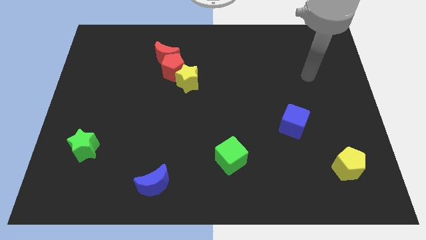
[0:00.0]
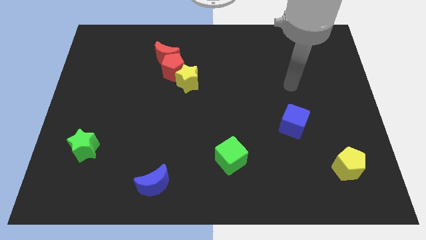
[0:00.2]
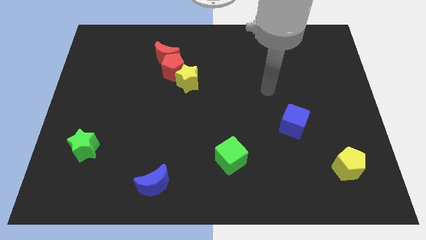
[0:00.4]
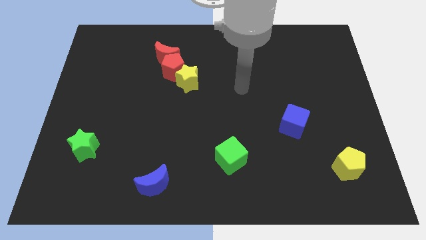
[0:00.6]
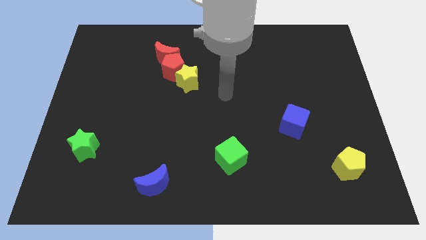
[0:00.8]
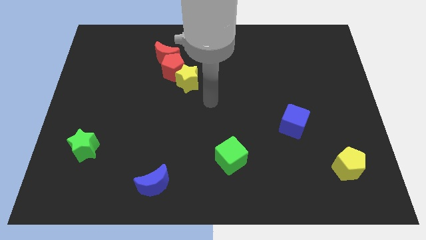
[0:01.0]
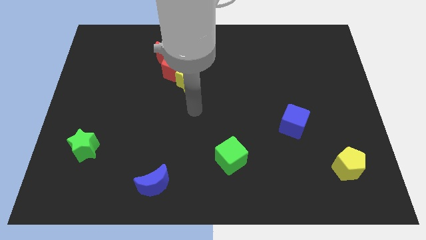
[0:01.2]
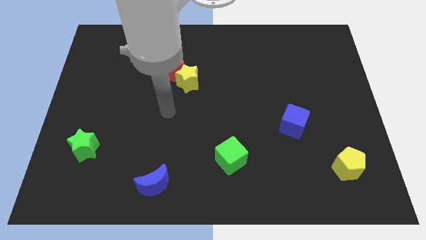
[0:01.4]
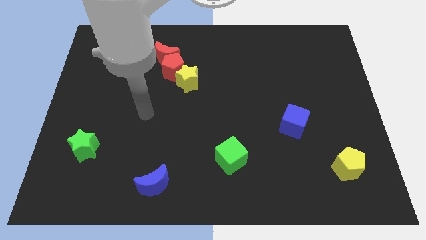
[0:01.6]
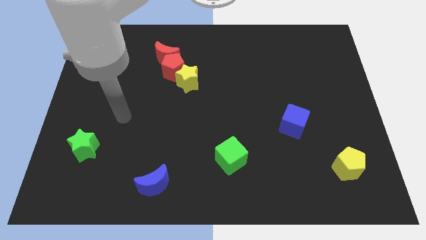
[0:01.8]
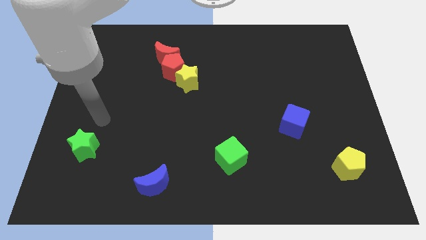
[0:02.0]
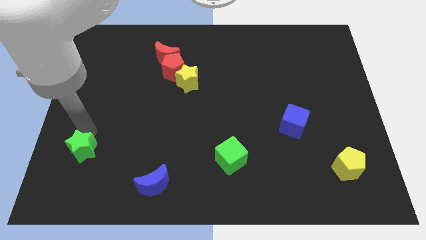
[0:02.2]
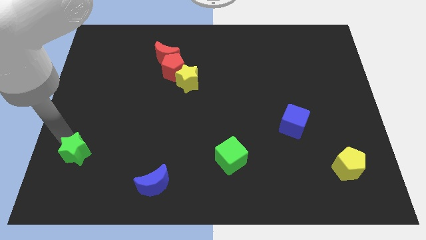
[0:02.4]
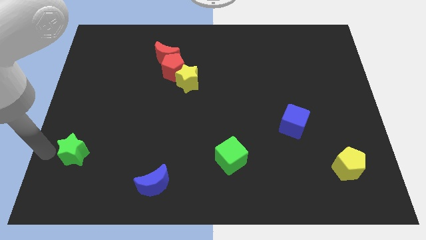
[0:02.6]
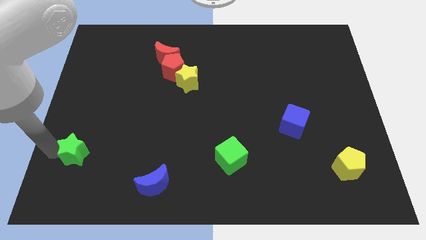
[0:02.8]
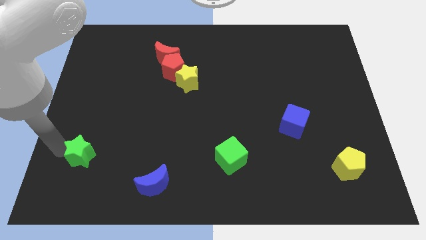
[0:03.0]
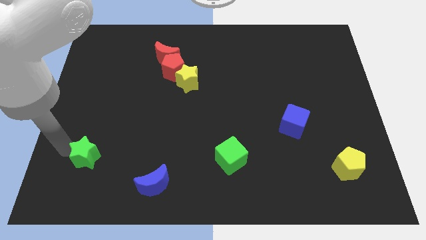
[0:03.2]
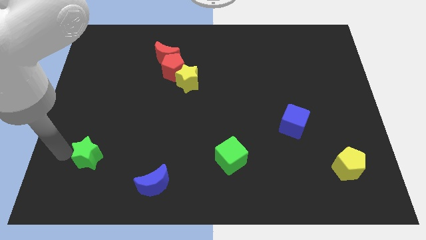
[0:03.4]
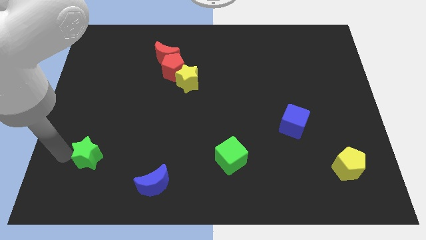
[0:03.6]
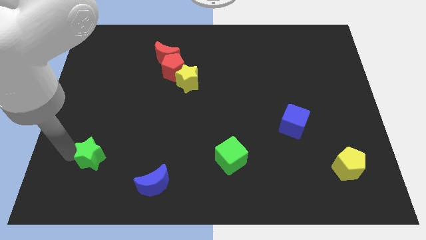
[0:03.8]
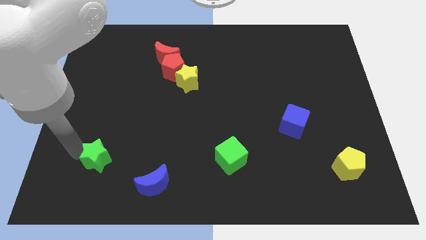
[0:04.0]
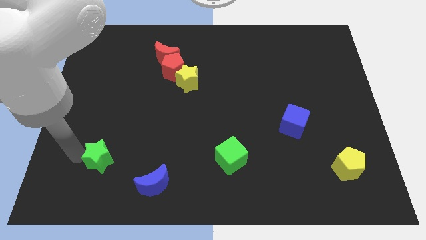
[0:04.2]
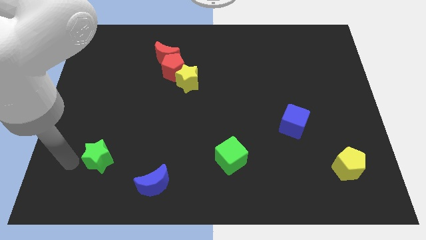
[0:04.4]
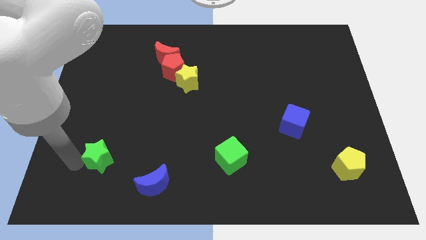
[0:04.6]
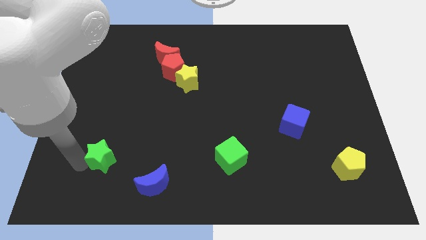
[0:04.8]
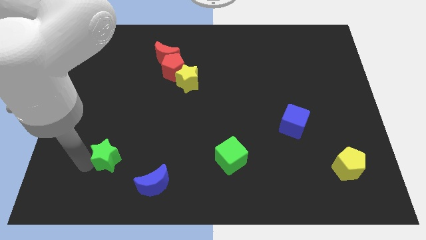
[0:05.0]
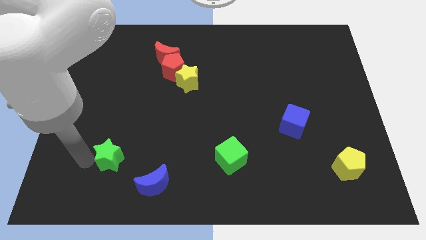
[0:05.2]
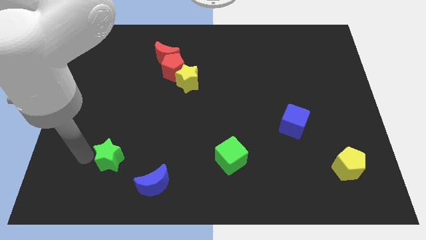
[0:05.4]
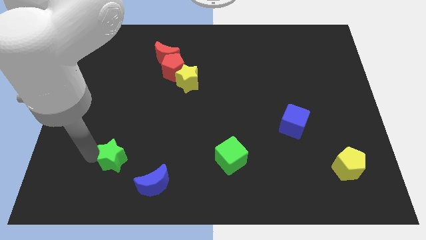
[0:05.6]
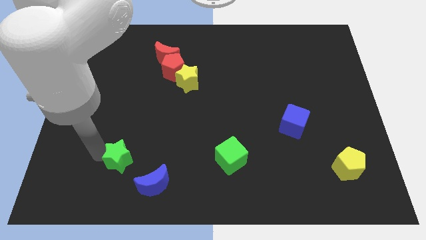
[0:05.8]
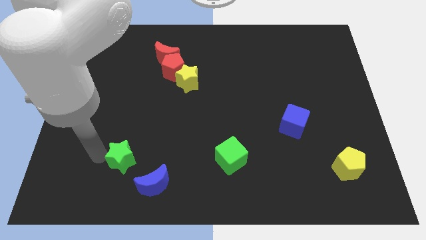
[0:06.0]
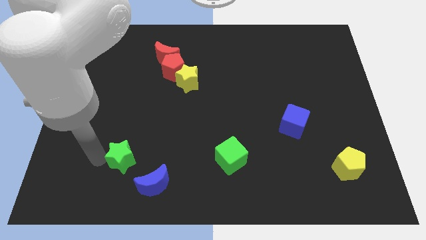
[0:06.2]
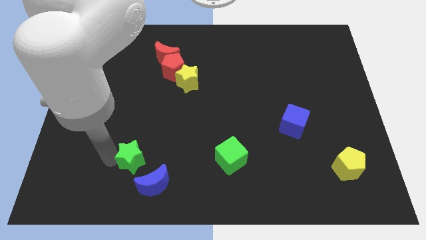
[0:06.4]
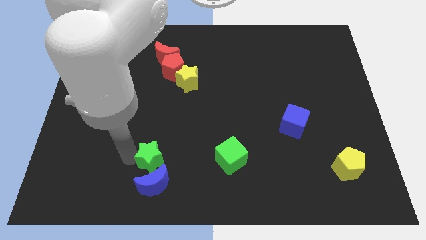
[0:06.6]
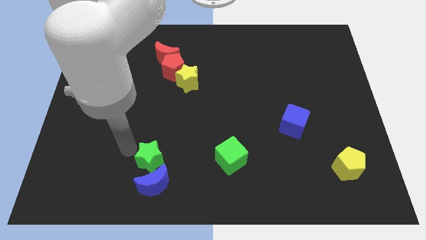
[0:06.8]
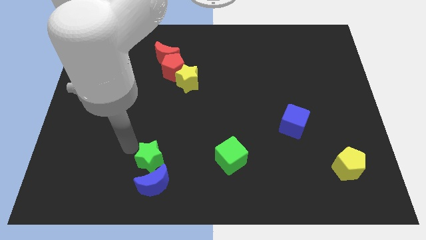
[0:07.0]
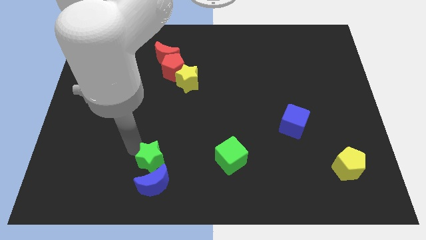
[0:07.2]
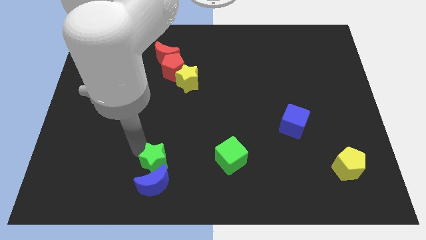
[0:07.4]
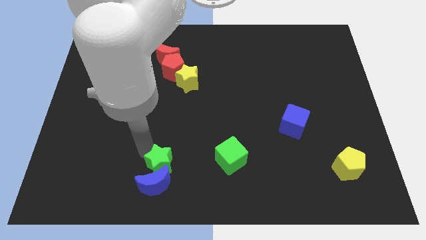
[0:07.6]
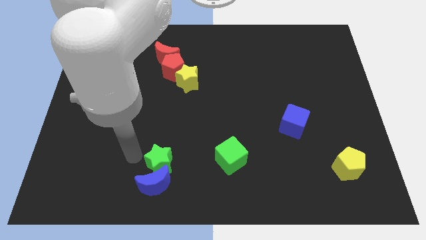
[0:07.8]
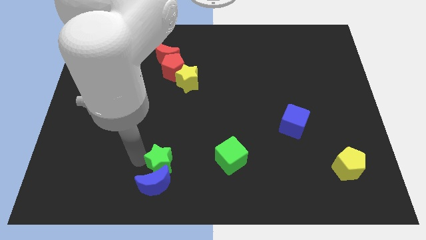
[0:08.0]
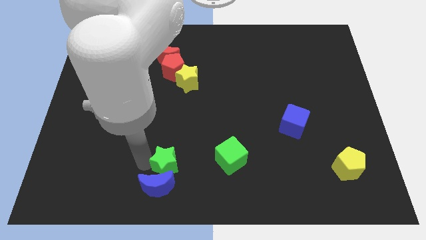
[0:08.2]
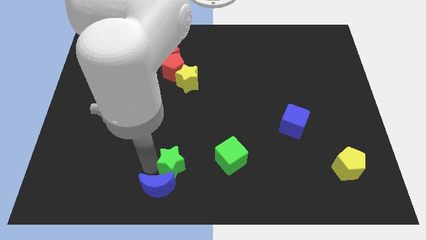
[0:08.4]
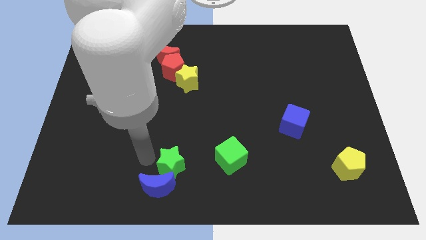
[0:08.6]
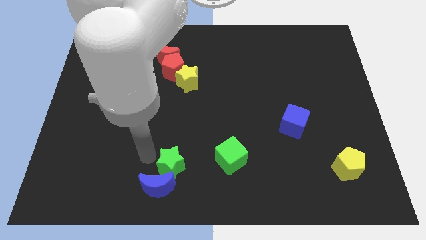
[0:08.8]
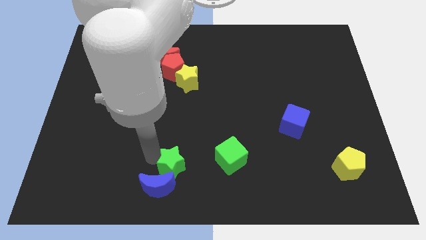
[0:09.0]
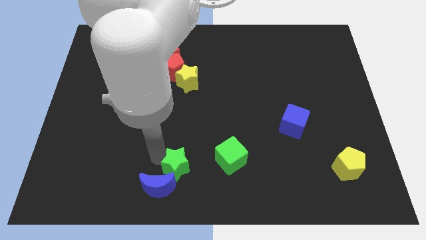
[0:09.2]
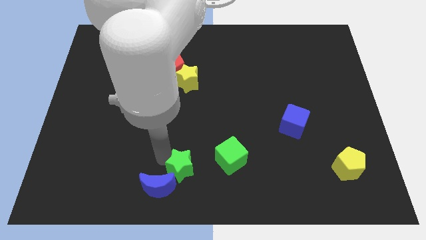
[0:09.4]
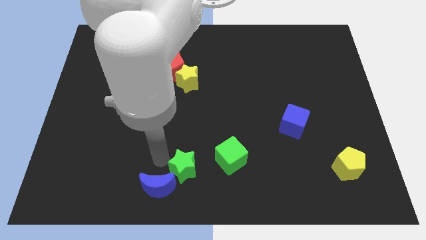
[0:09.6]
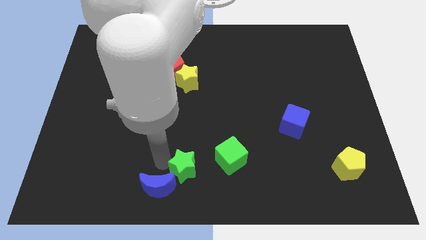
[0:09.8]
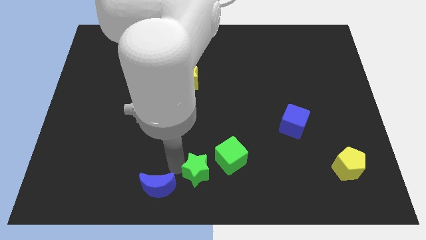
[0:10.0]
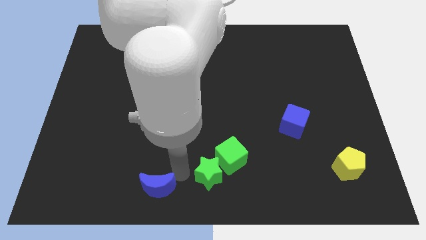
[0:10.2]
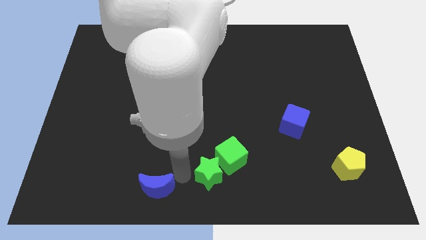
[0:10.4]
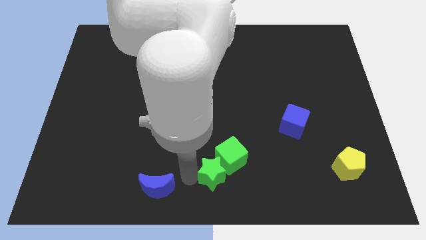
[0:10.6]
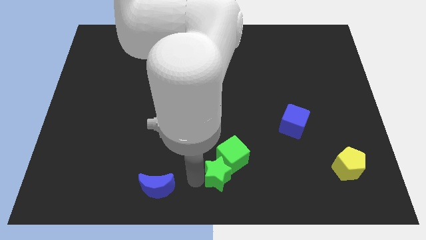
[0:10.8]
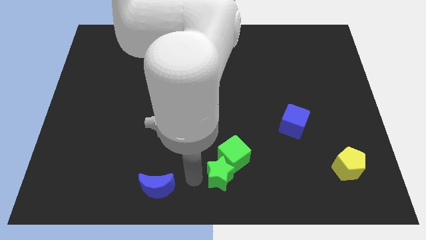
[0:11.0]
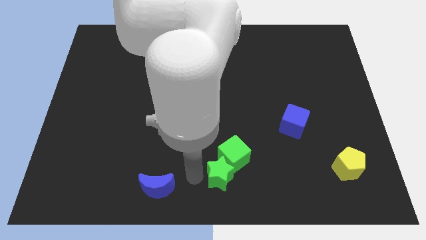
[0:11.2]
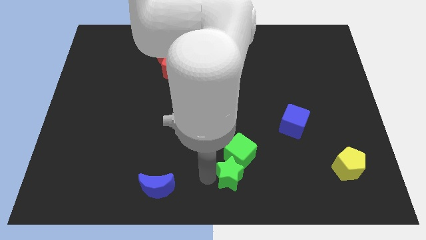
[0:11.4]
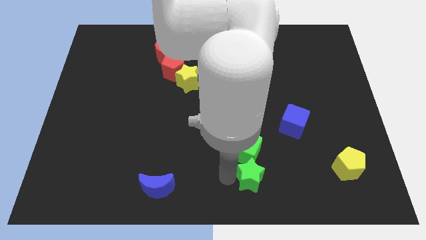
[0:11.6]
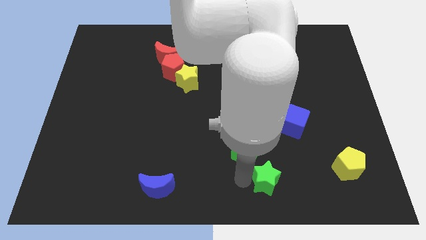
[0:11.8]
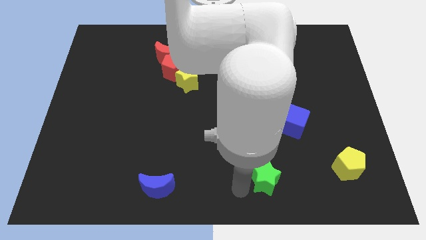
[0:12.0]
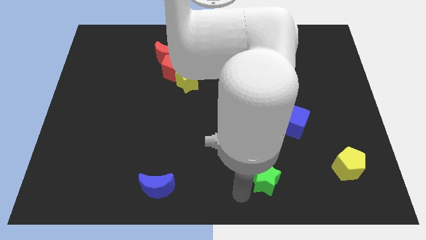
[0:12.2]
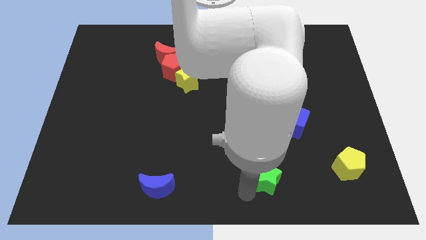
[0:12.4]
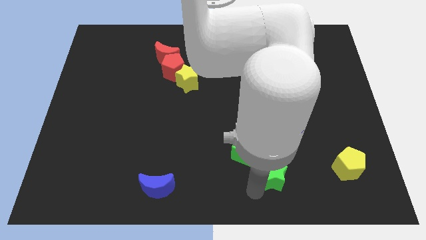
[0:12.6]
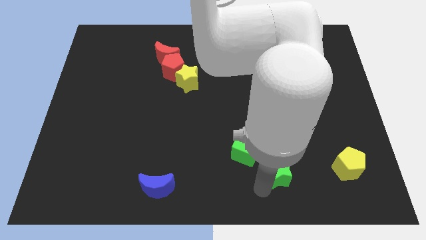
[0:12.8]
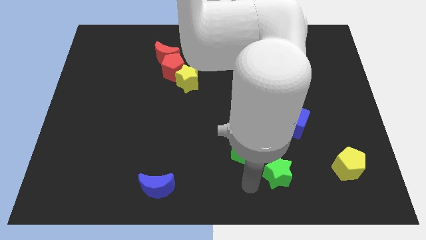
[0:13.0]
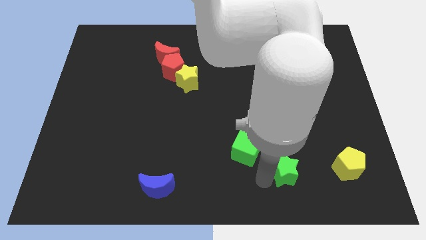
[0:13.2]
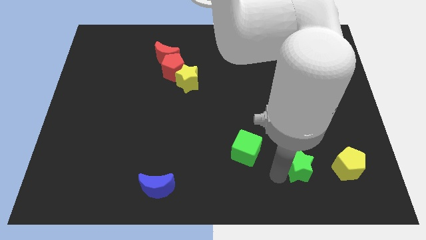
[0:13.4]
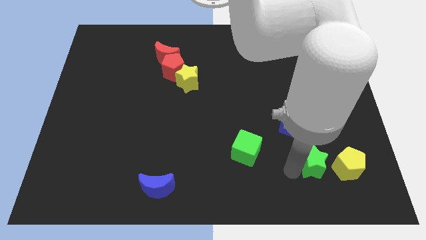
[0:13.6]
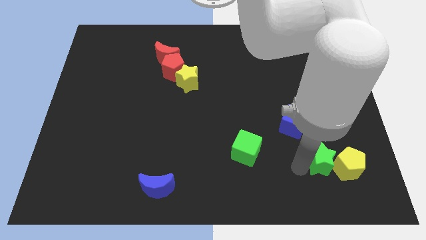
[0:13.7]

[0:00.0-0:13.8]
move the green star towards the yellow pentagon

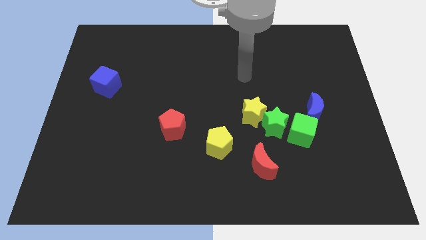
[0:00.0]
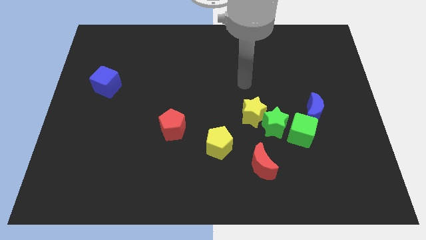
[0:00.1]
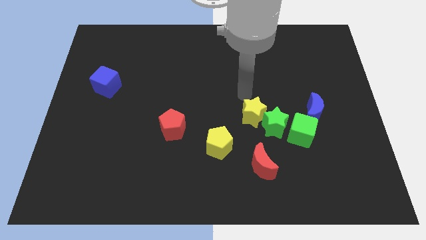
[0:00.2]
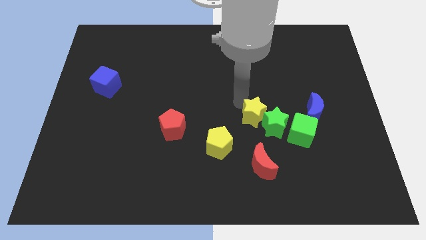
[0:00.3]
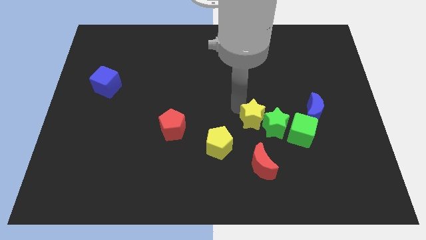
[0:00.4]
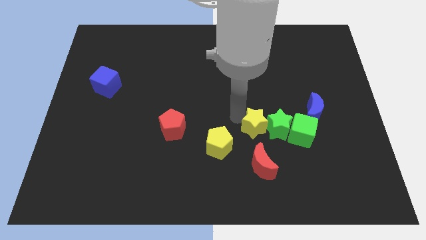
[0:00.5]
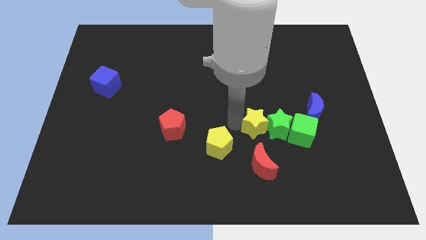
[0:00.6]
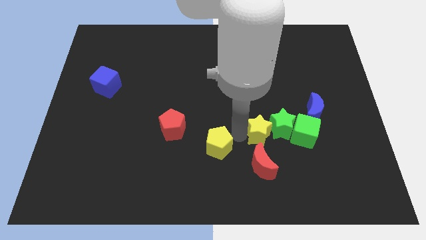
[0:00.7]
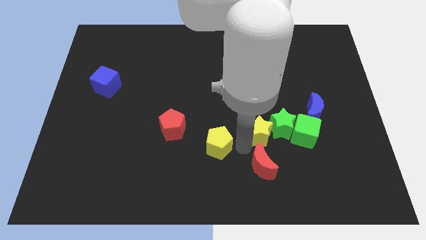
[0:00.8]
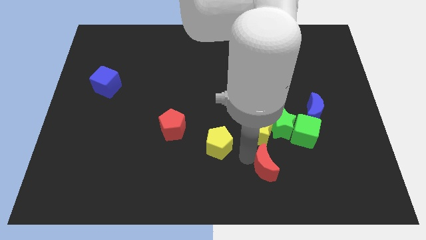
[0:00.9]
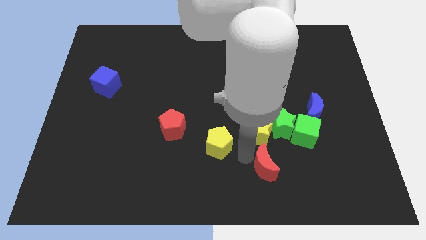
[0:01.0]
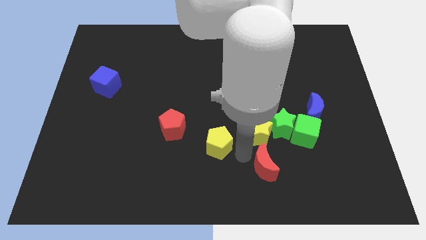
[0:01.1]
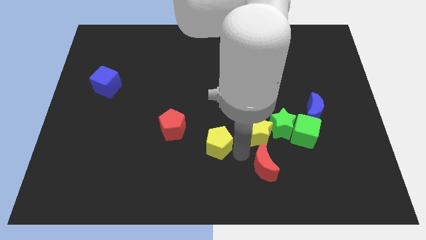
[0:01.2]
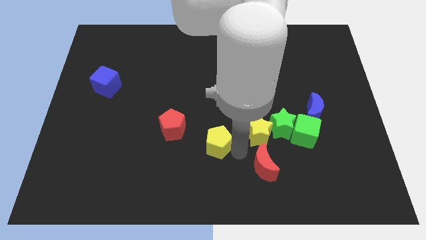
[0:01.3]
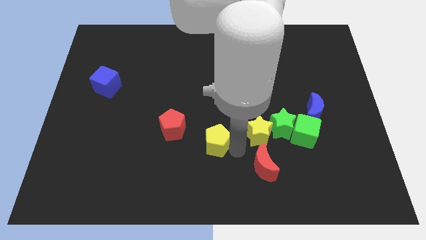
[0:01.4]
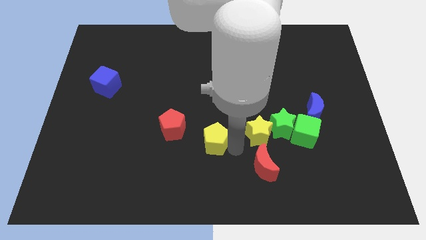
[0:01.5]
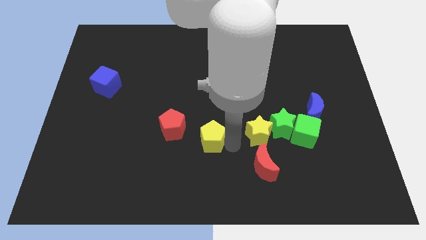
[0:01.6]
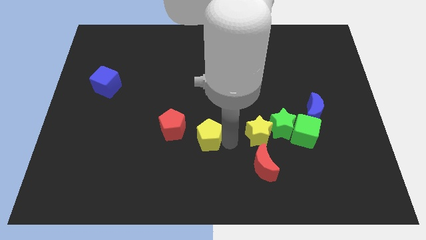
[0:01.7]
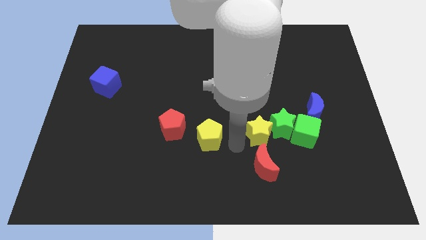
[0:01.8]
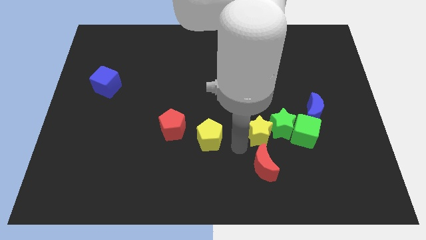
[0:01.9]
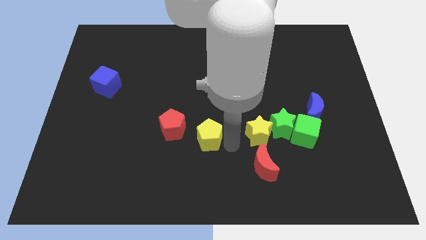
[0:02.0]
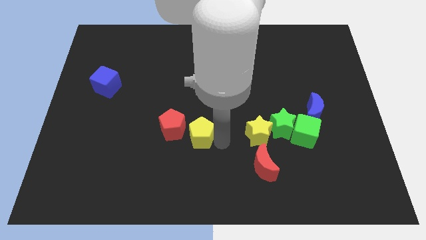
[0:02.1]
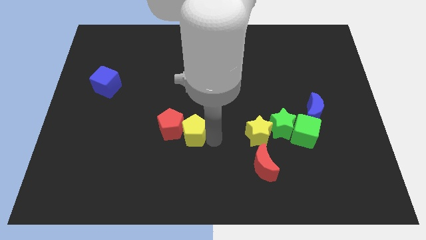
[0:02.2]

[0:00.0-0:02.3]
put the yellow pentagon close to the red pentagon
